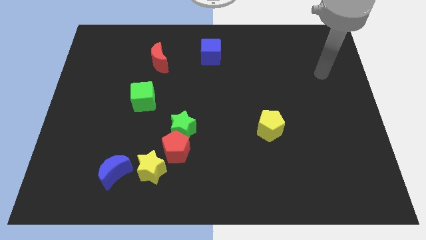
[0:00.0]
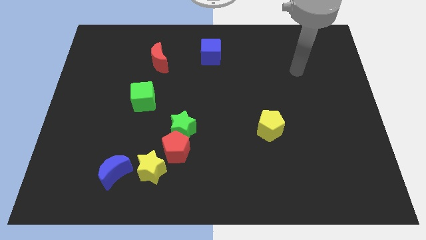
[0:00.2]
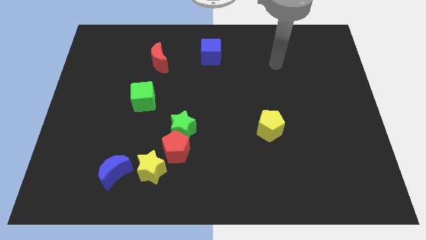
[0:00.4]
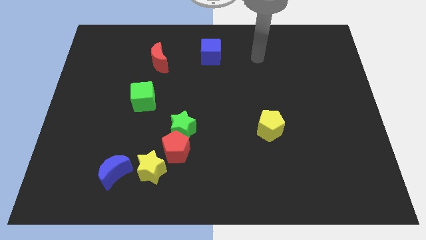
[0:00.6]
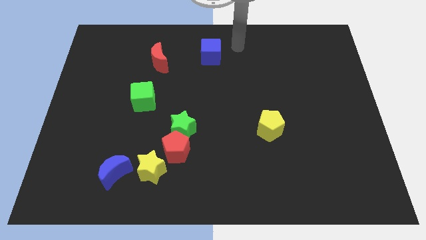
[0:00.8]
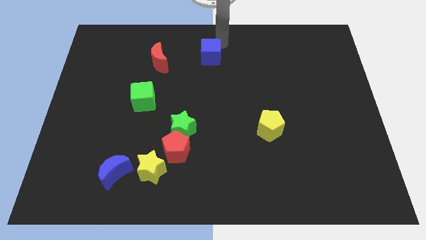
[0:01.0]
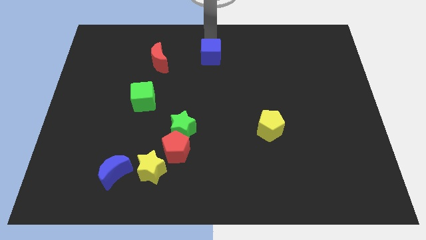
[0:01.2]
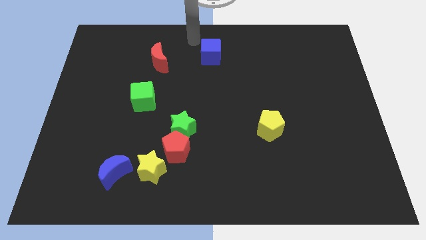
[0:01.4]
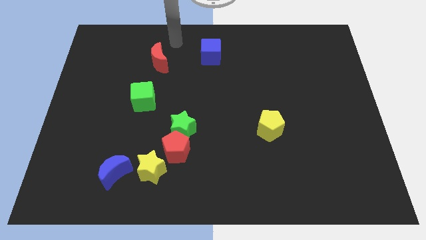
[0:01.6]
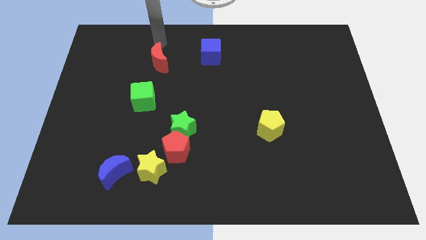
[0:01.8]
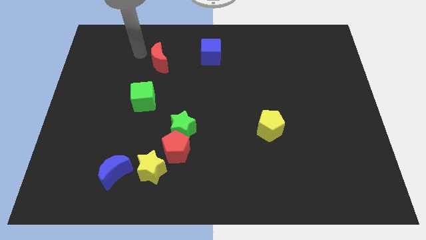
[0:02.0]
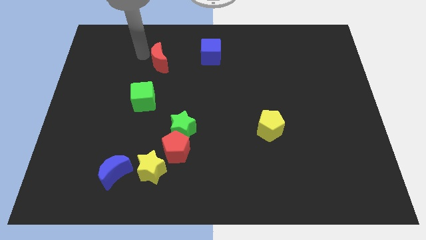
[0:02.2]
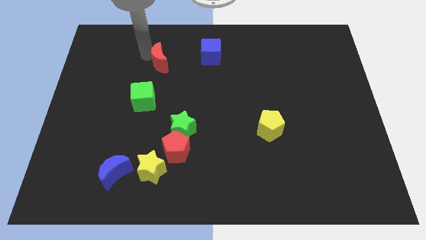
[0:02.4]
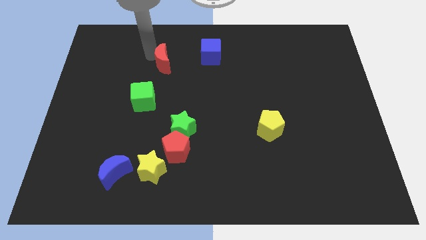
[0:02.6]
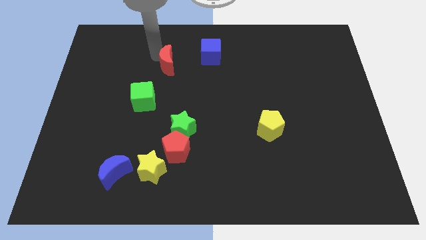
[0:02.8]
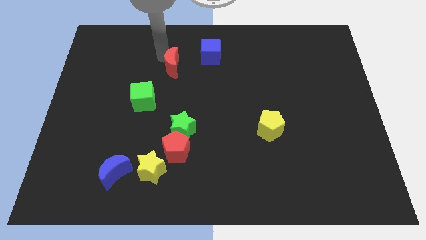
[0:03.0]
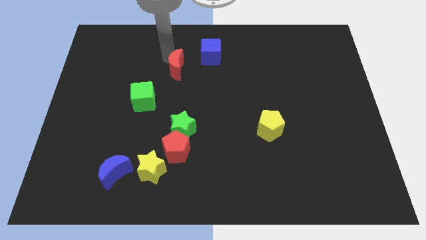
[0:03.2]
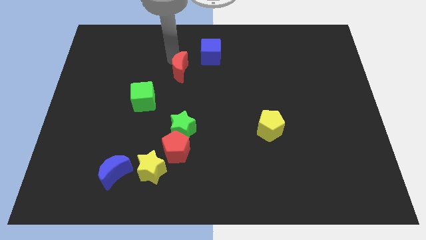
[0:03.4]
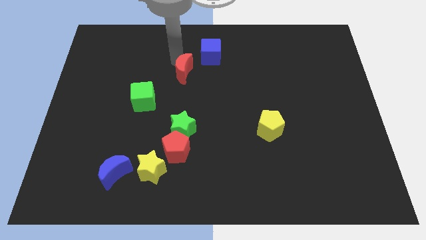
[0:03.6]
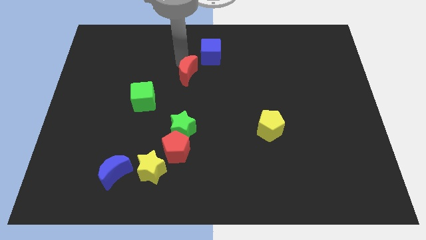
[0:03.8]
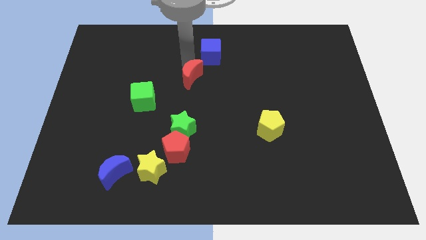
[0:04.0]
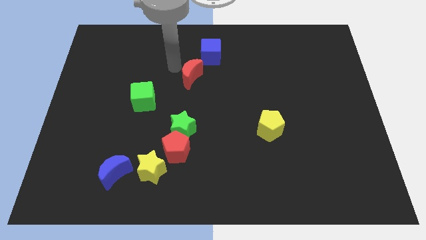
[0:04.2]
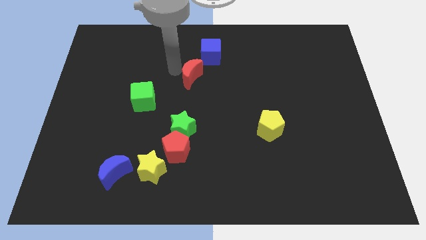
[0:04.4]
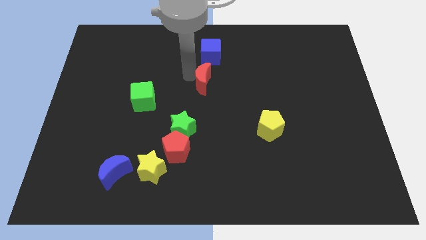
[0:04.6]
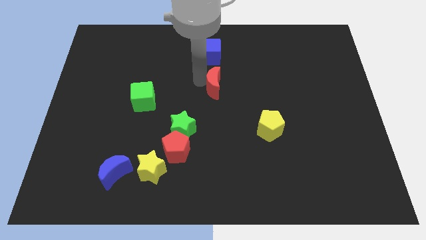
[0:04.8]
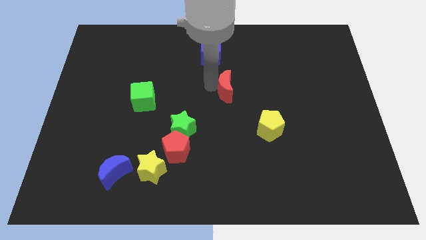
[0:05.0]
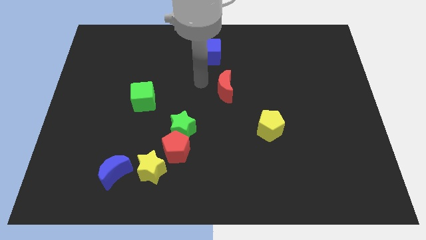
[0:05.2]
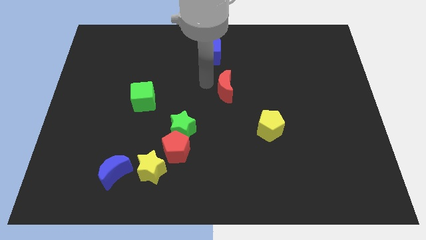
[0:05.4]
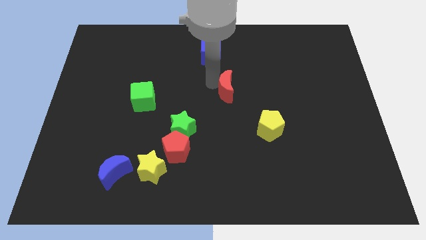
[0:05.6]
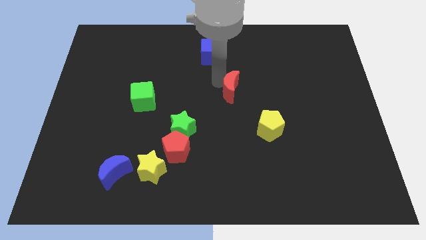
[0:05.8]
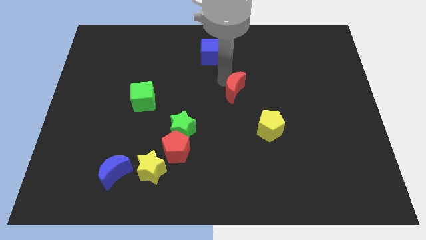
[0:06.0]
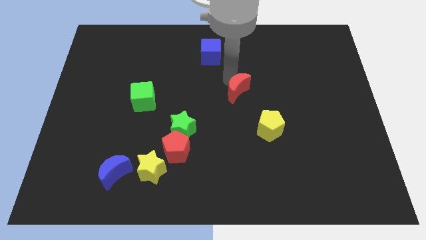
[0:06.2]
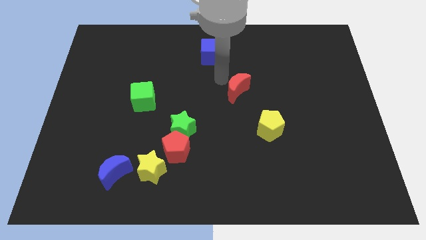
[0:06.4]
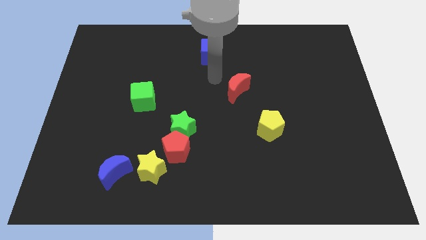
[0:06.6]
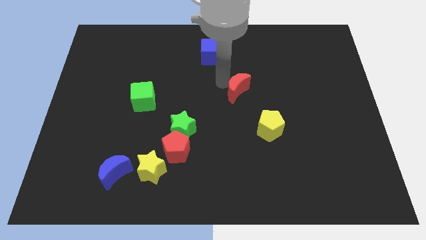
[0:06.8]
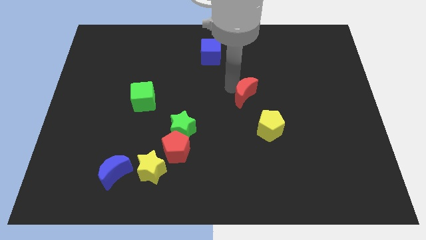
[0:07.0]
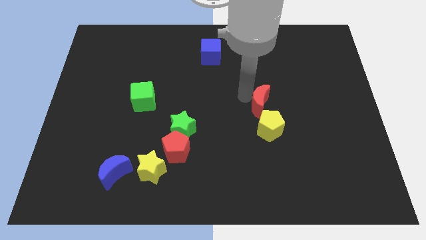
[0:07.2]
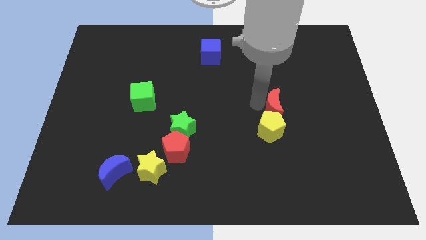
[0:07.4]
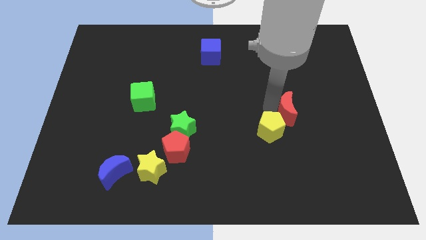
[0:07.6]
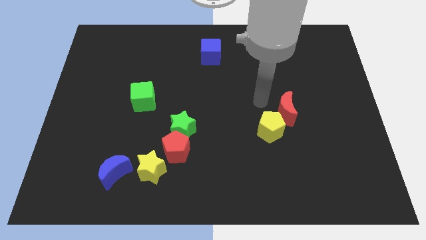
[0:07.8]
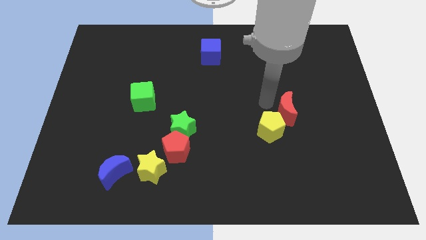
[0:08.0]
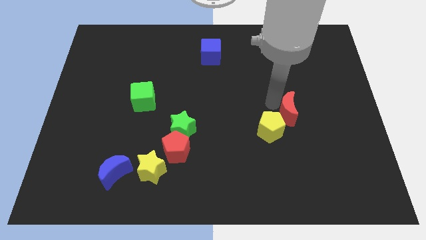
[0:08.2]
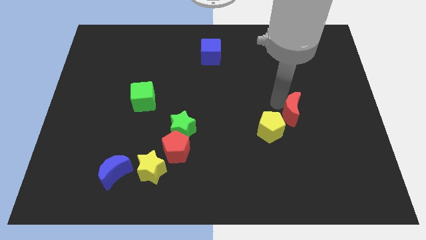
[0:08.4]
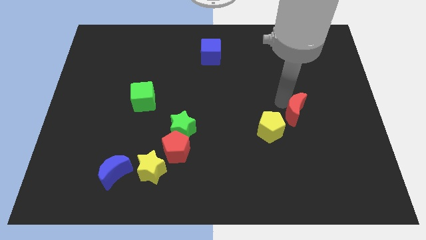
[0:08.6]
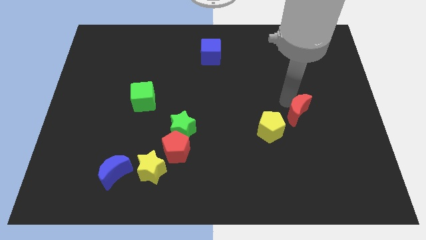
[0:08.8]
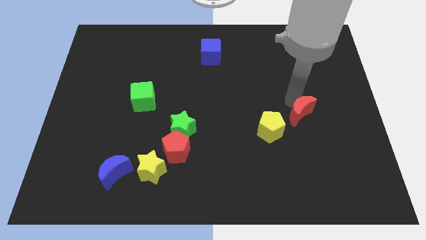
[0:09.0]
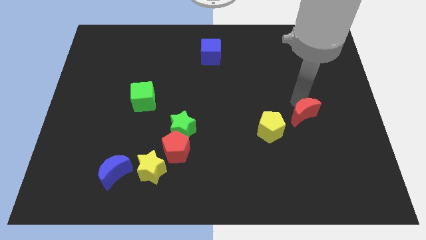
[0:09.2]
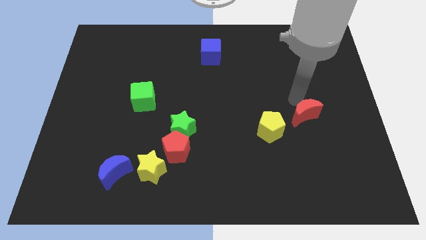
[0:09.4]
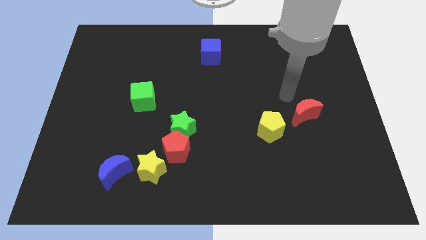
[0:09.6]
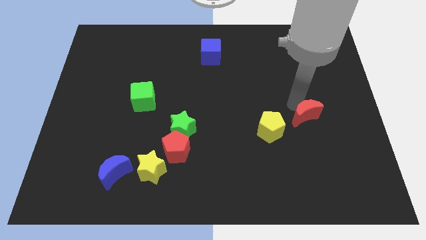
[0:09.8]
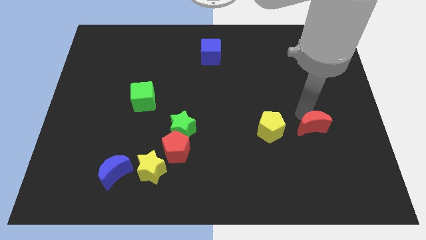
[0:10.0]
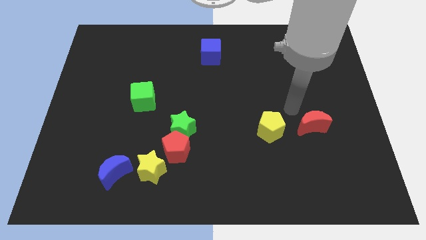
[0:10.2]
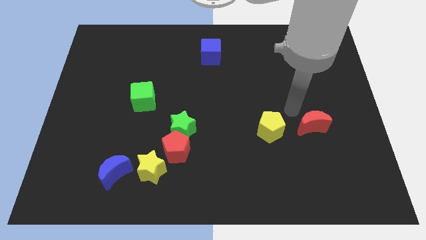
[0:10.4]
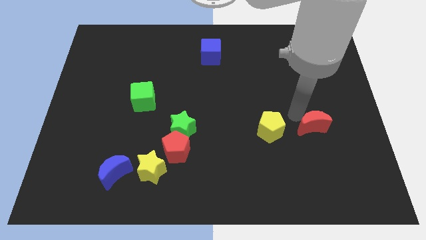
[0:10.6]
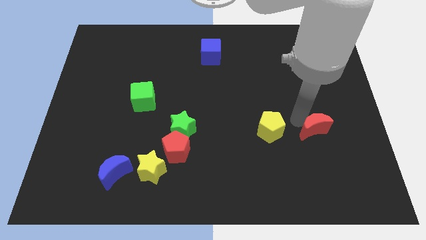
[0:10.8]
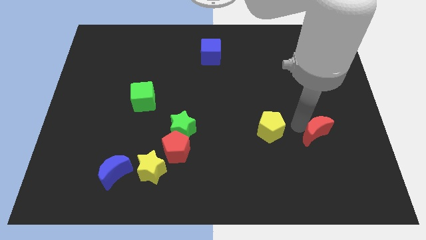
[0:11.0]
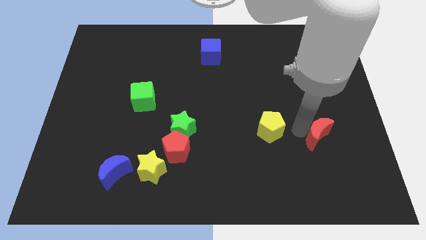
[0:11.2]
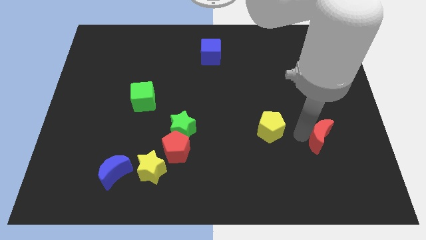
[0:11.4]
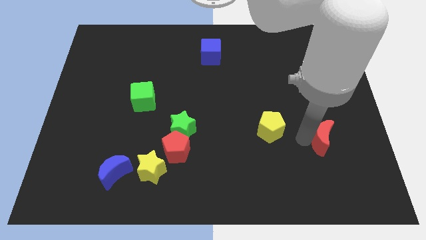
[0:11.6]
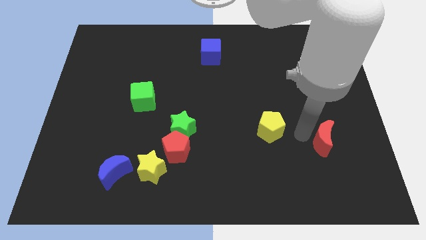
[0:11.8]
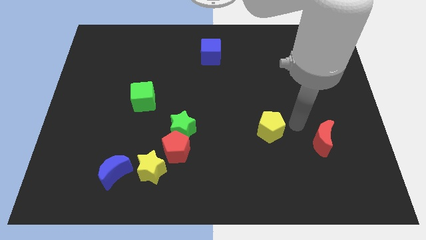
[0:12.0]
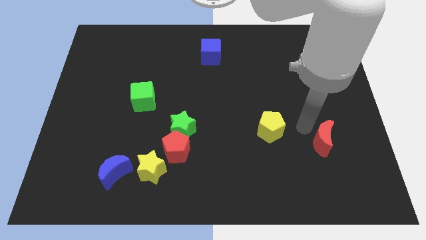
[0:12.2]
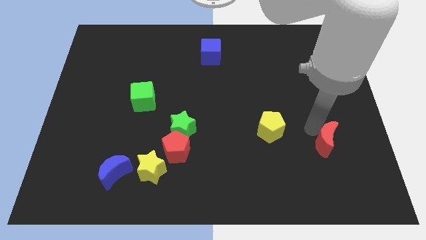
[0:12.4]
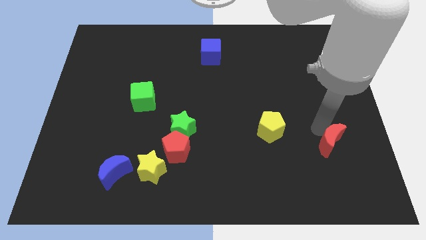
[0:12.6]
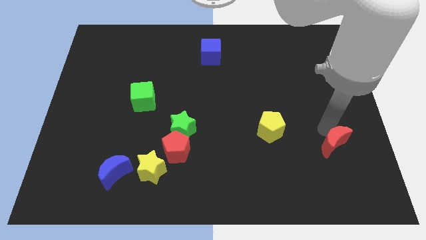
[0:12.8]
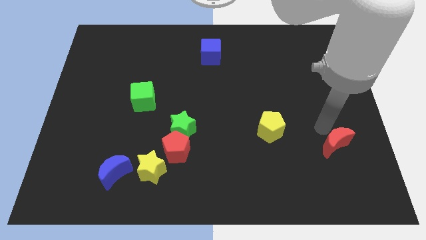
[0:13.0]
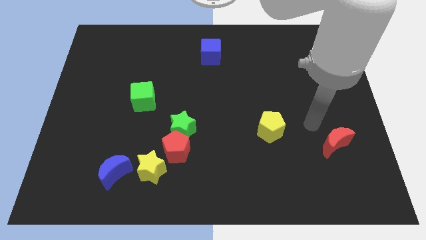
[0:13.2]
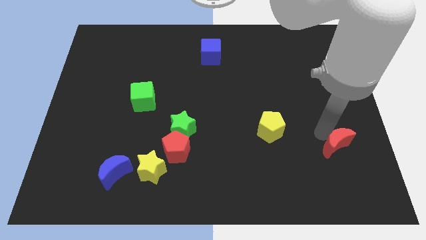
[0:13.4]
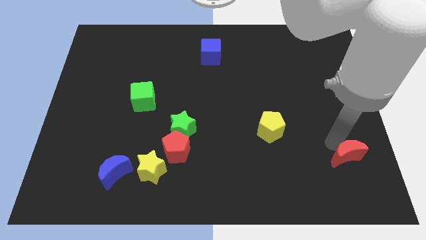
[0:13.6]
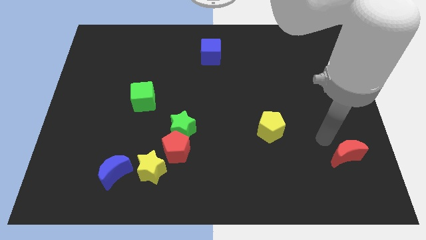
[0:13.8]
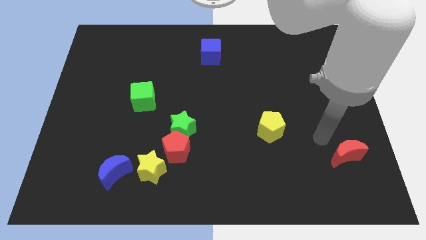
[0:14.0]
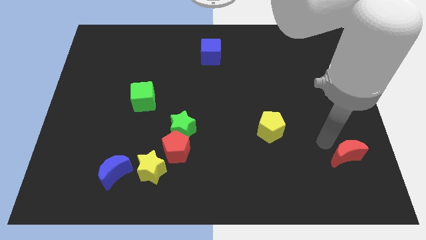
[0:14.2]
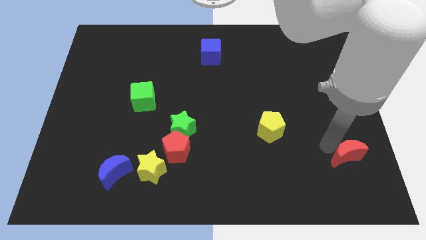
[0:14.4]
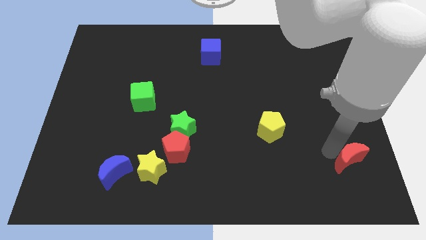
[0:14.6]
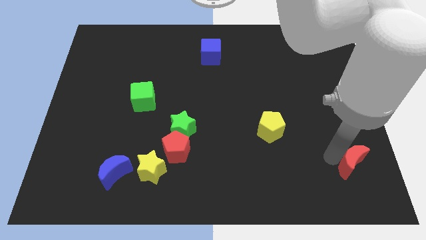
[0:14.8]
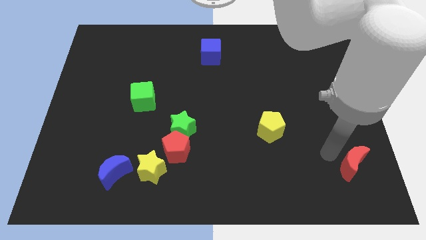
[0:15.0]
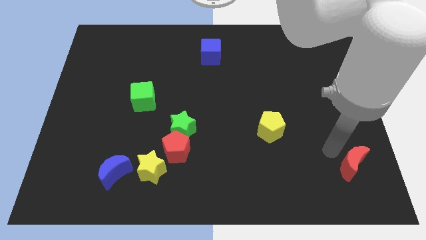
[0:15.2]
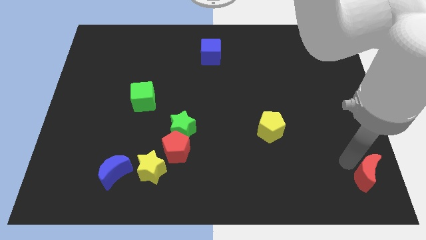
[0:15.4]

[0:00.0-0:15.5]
put the red moon to the lower right corner

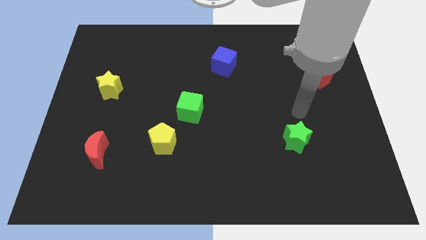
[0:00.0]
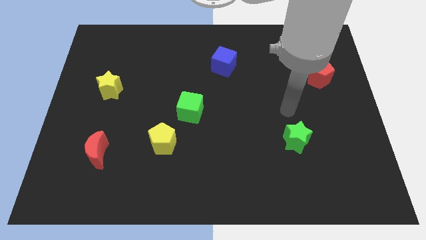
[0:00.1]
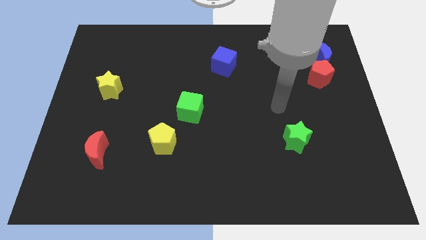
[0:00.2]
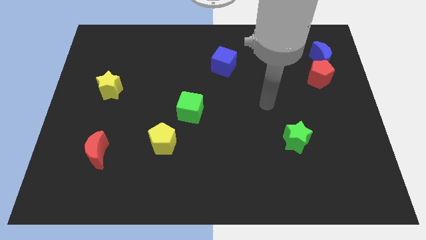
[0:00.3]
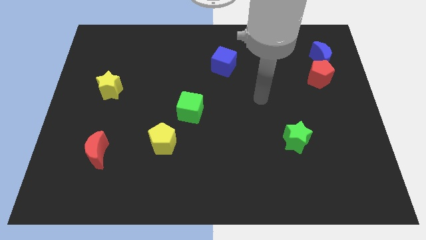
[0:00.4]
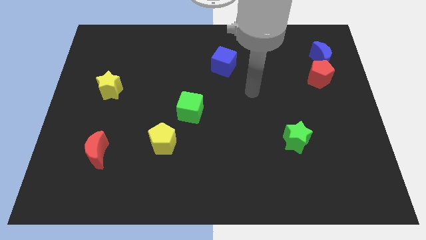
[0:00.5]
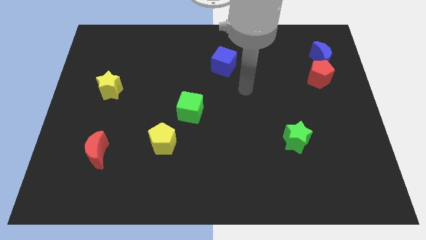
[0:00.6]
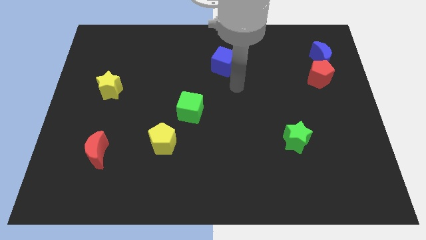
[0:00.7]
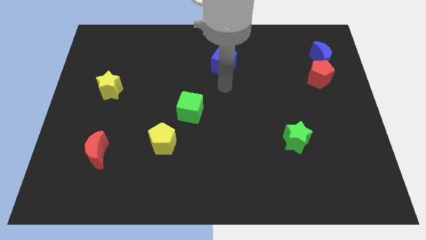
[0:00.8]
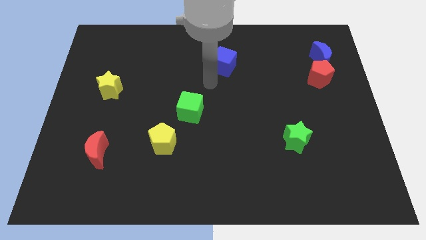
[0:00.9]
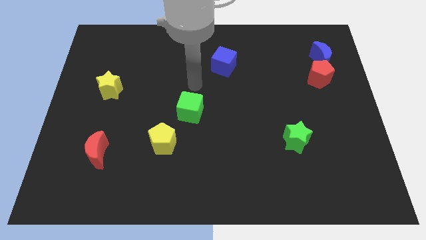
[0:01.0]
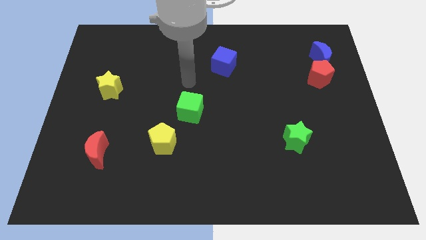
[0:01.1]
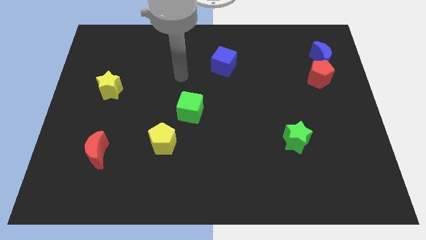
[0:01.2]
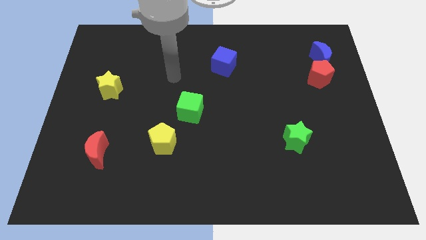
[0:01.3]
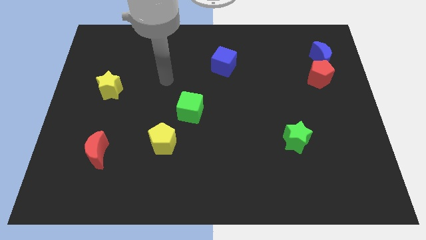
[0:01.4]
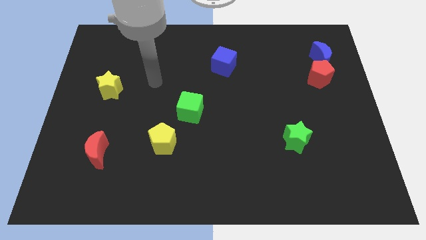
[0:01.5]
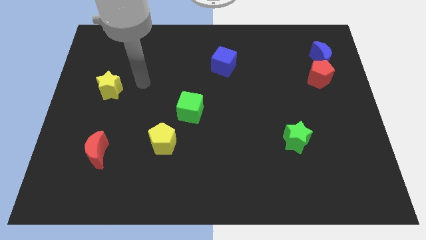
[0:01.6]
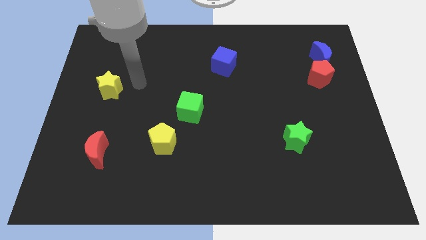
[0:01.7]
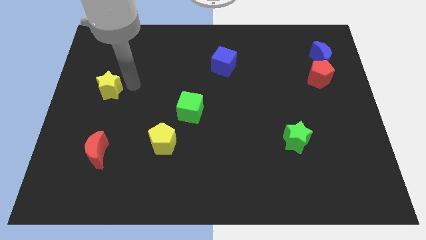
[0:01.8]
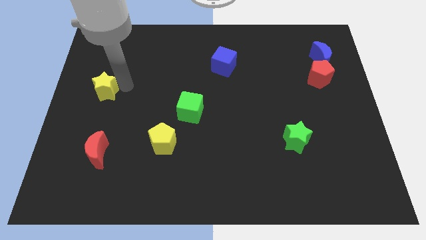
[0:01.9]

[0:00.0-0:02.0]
slide the yellow star to the left side of the board
